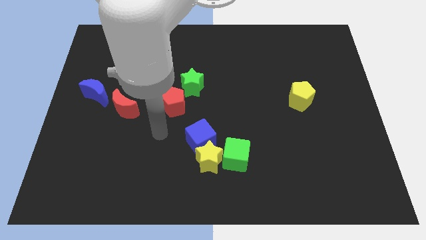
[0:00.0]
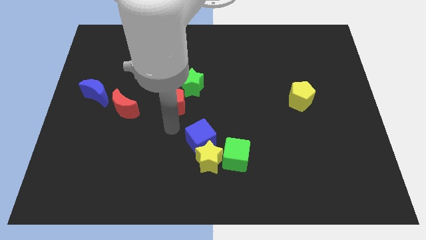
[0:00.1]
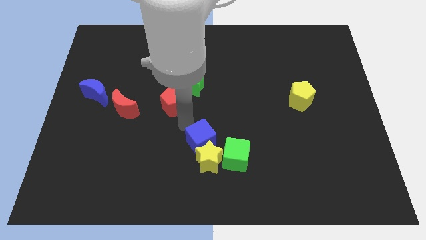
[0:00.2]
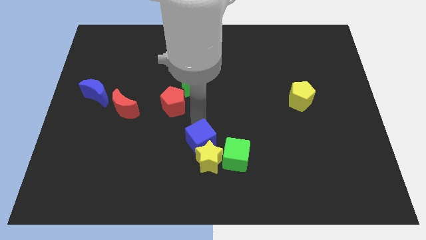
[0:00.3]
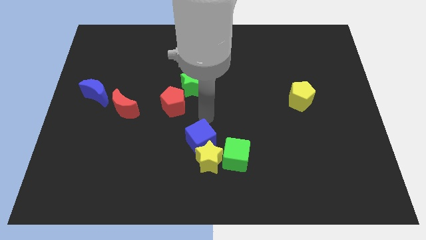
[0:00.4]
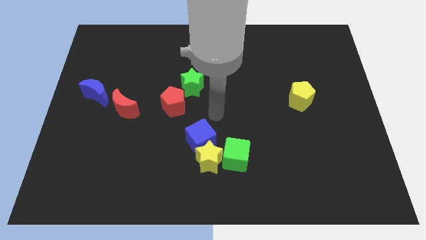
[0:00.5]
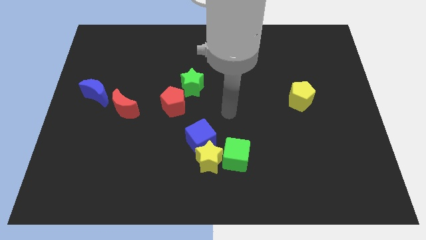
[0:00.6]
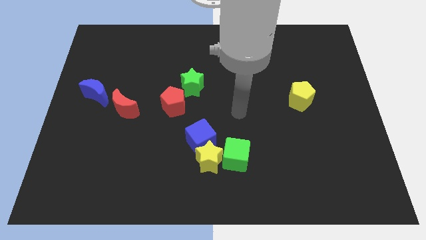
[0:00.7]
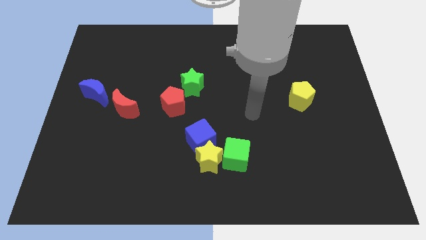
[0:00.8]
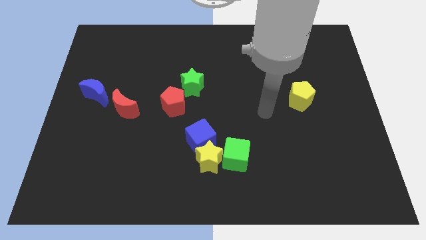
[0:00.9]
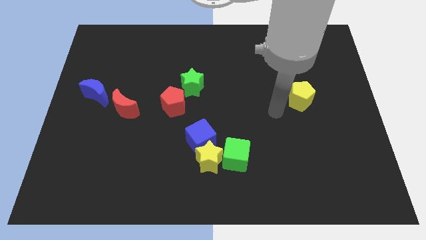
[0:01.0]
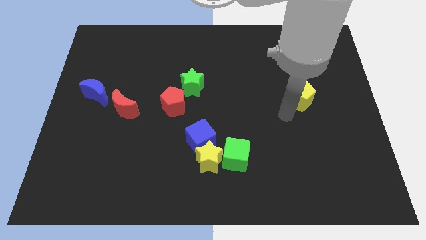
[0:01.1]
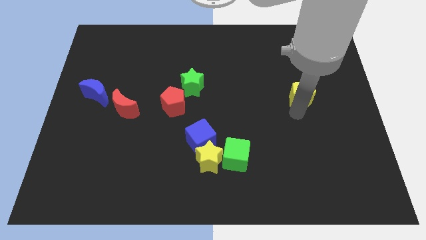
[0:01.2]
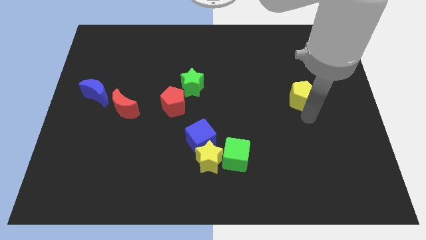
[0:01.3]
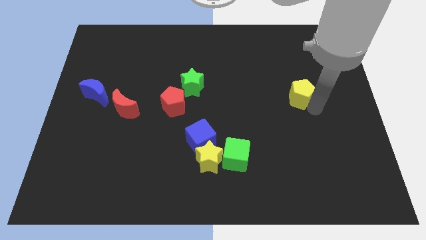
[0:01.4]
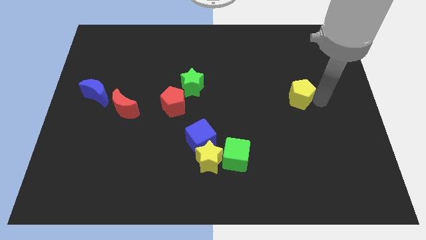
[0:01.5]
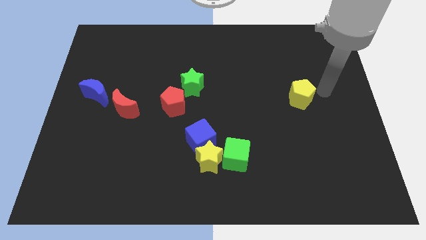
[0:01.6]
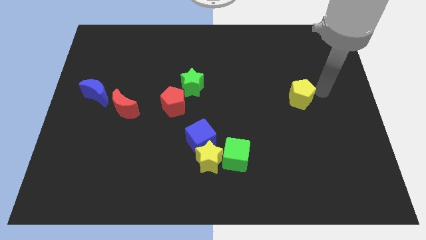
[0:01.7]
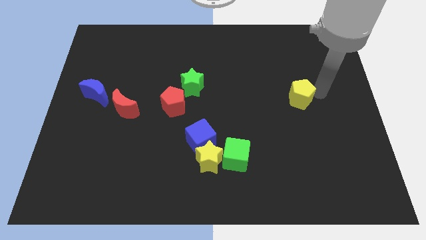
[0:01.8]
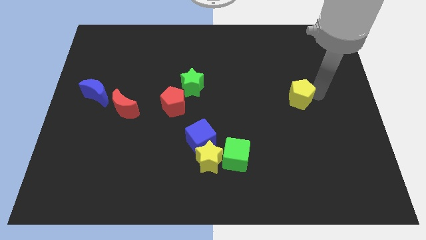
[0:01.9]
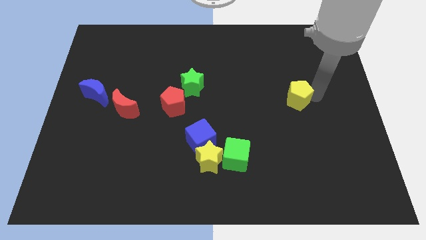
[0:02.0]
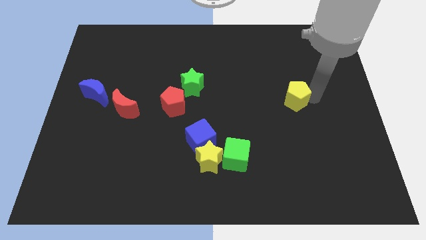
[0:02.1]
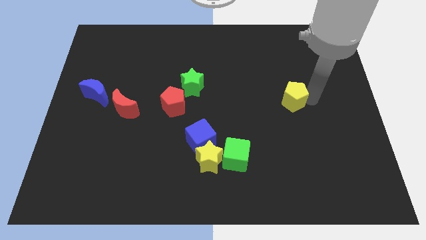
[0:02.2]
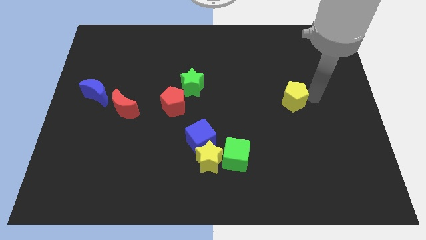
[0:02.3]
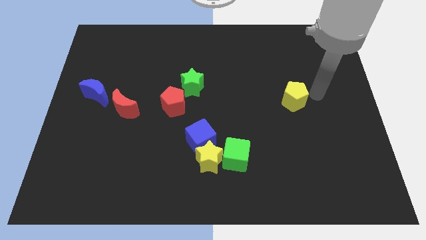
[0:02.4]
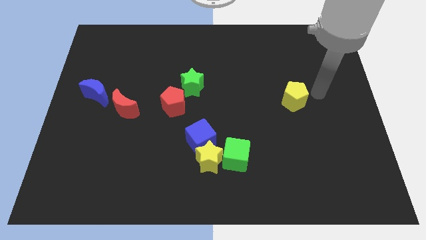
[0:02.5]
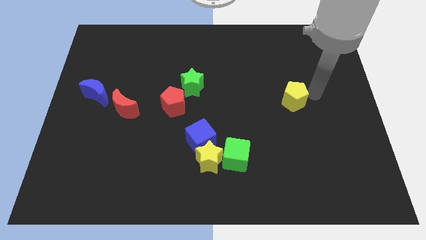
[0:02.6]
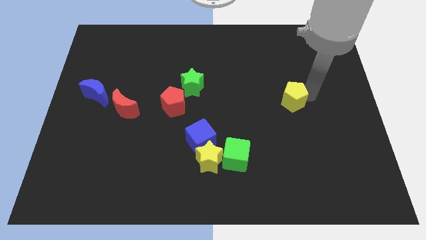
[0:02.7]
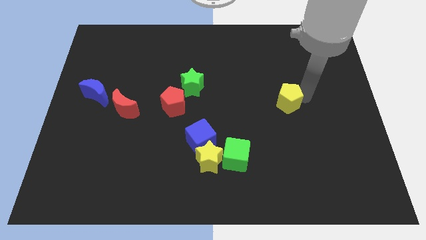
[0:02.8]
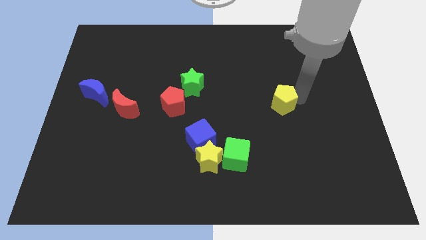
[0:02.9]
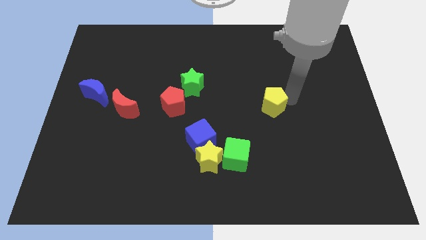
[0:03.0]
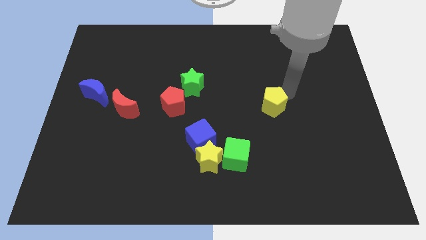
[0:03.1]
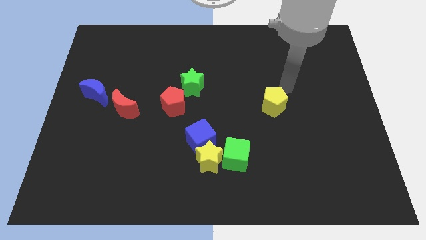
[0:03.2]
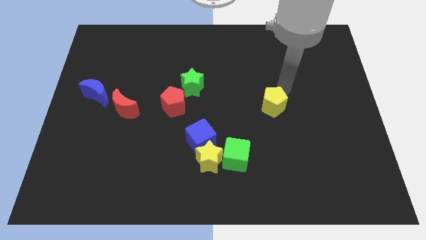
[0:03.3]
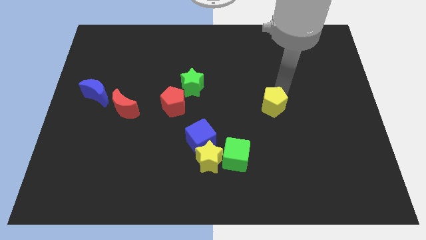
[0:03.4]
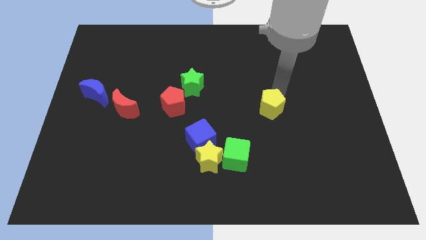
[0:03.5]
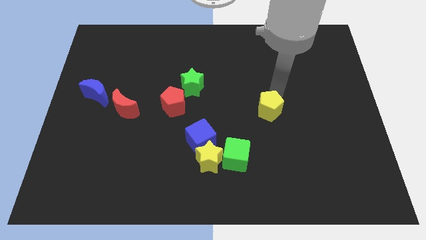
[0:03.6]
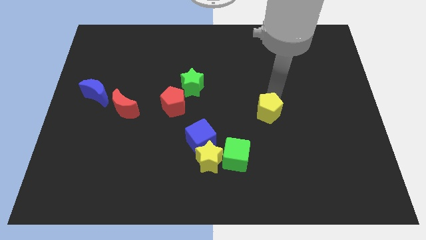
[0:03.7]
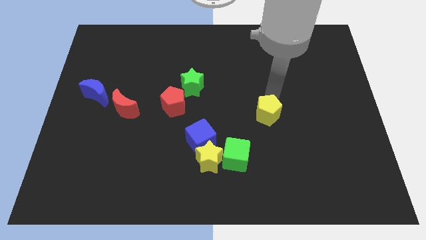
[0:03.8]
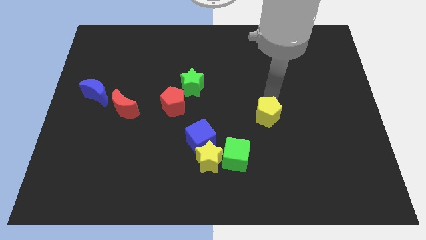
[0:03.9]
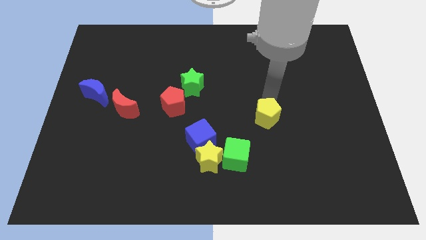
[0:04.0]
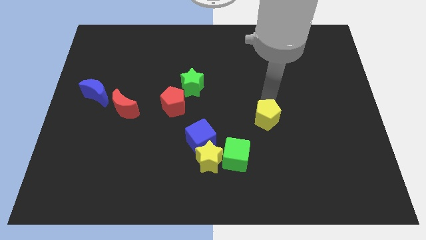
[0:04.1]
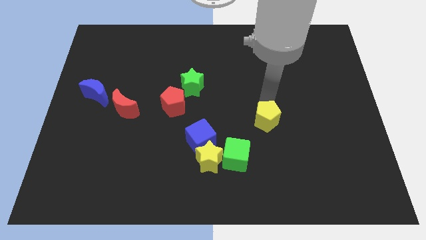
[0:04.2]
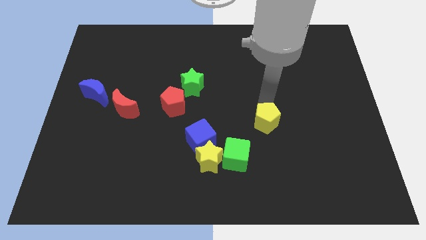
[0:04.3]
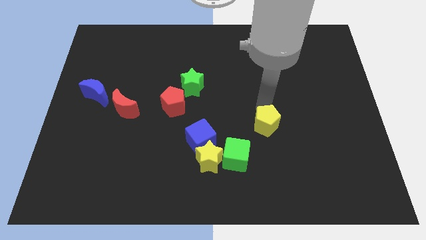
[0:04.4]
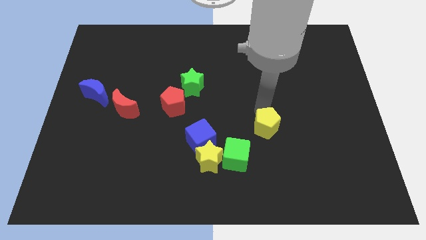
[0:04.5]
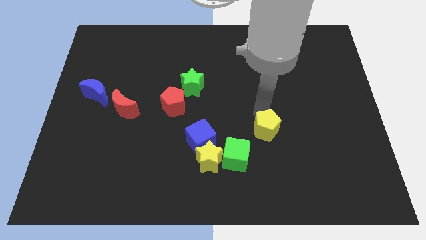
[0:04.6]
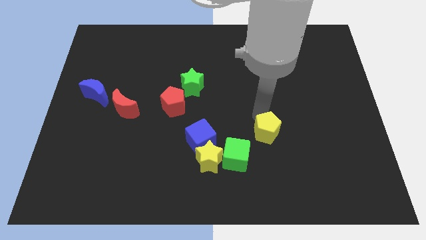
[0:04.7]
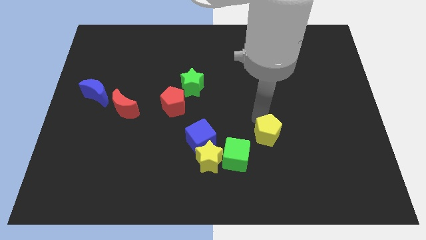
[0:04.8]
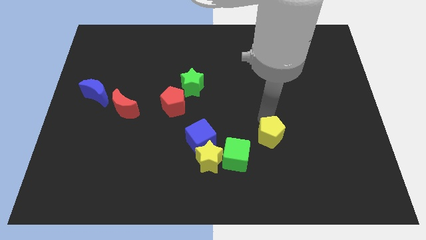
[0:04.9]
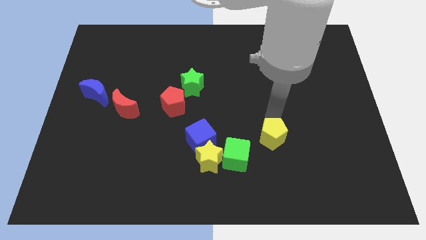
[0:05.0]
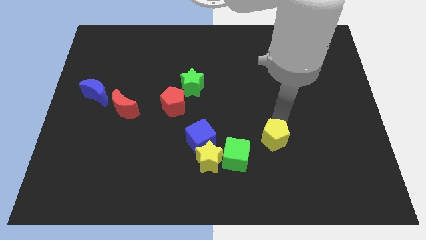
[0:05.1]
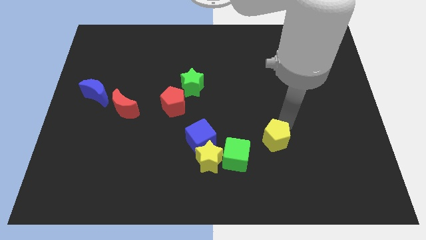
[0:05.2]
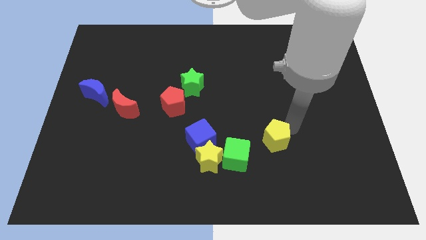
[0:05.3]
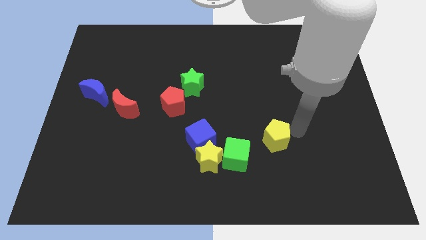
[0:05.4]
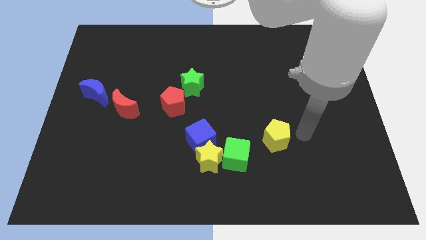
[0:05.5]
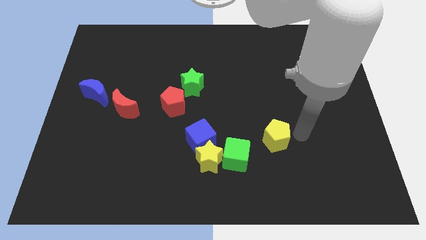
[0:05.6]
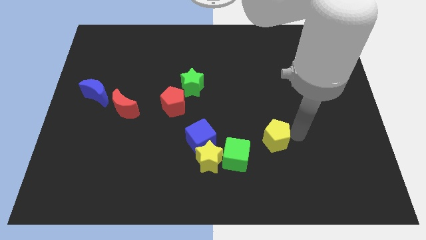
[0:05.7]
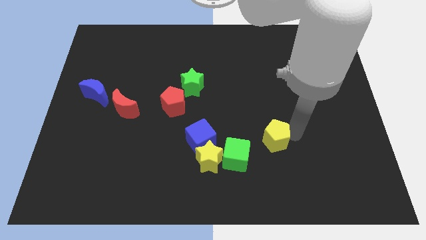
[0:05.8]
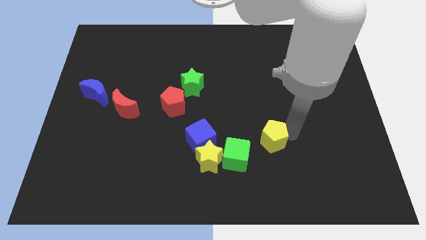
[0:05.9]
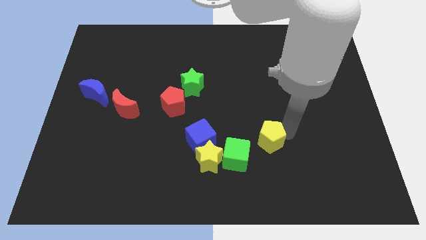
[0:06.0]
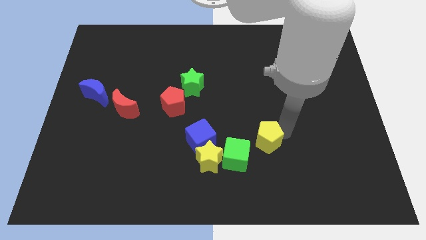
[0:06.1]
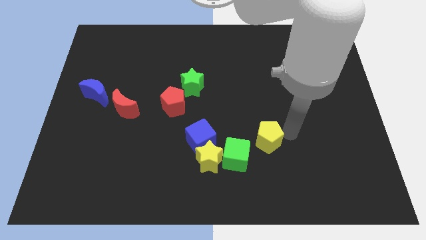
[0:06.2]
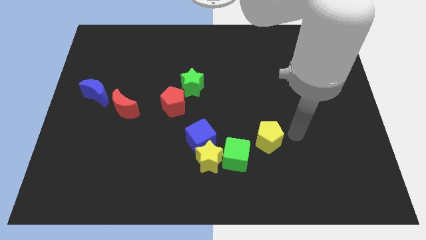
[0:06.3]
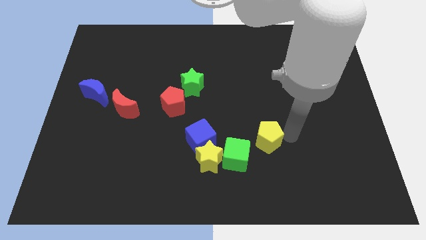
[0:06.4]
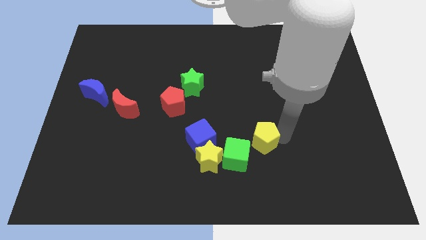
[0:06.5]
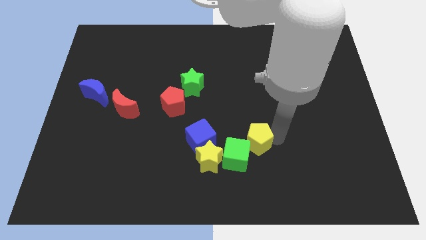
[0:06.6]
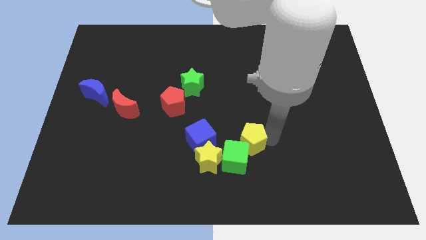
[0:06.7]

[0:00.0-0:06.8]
slide the yellow pentagon towards the green cube
